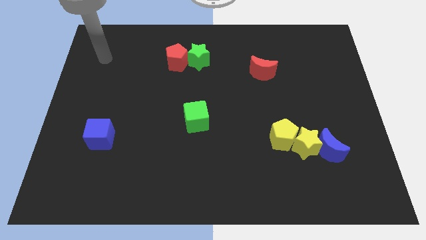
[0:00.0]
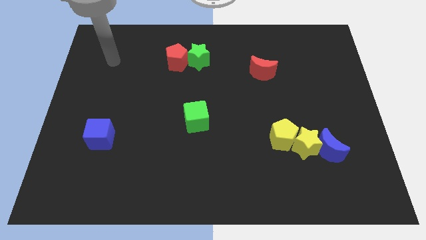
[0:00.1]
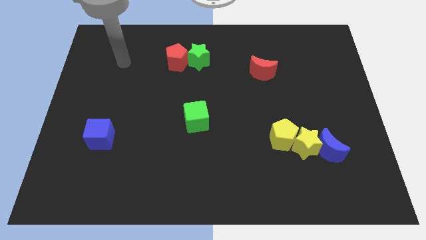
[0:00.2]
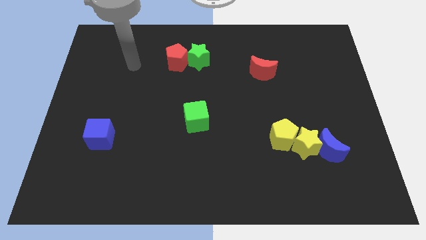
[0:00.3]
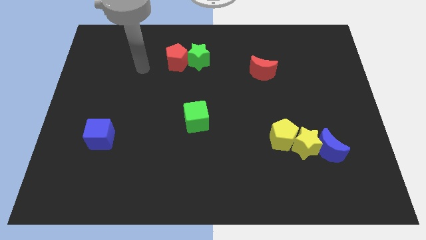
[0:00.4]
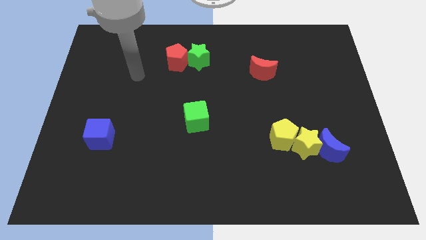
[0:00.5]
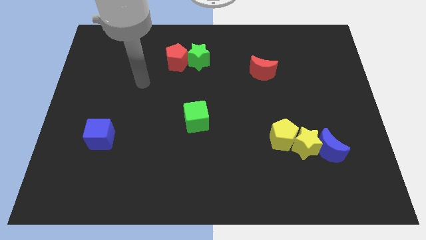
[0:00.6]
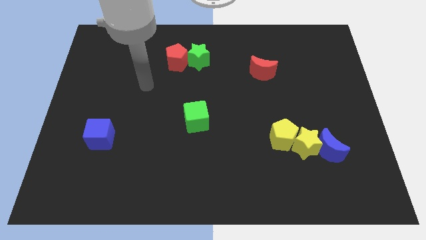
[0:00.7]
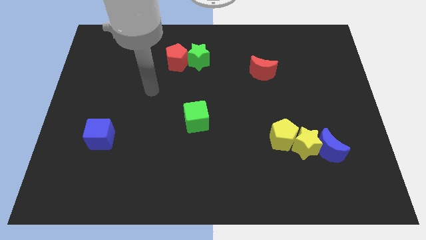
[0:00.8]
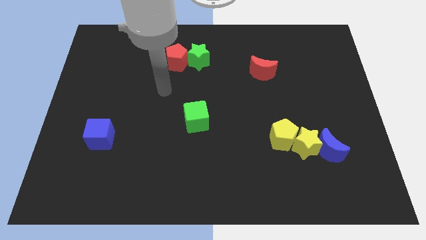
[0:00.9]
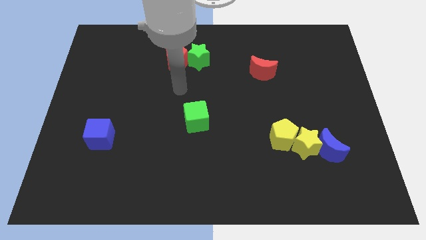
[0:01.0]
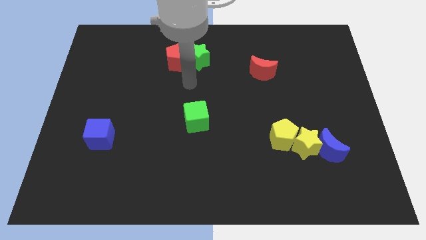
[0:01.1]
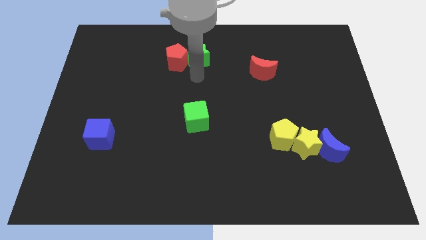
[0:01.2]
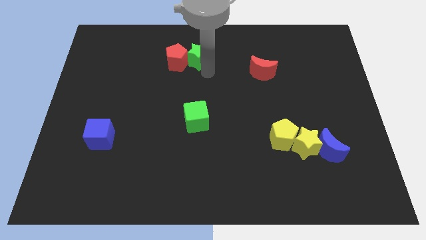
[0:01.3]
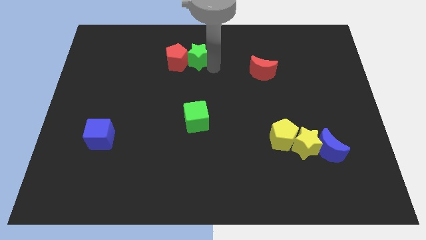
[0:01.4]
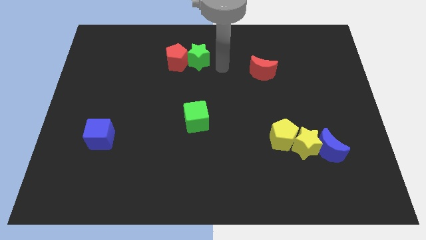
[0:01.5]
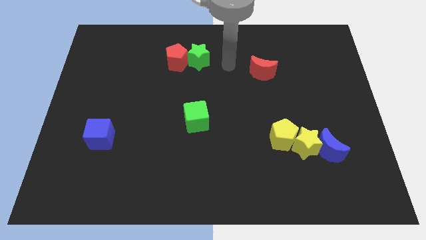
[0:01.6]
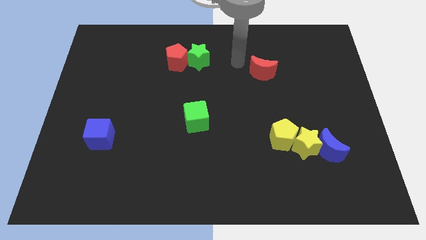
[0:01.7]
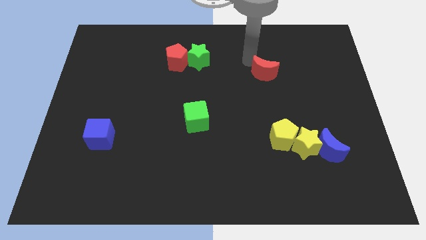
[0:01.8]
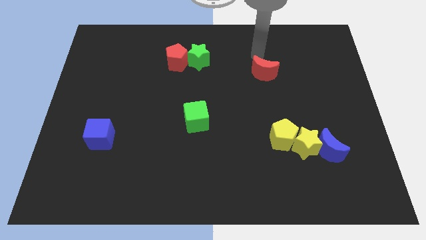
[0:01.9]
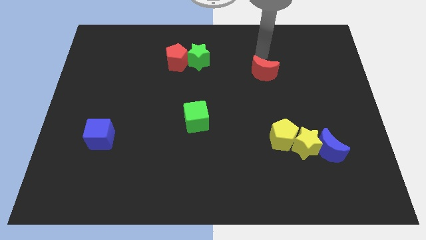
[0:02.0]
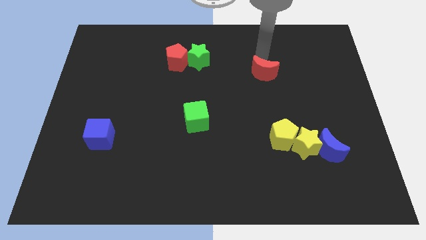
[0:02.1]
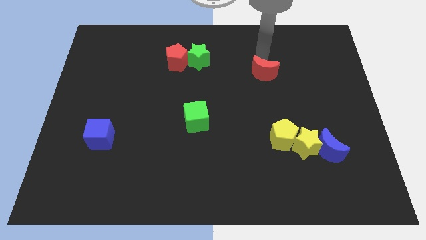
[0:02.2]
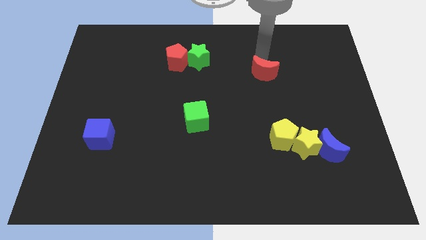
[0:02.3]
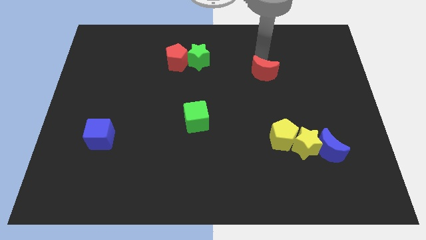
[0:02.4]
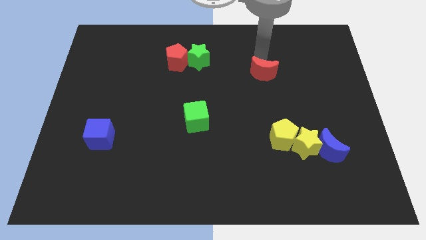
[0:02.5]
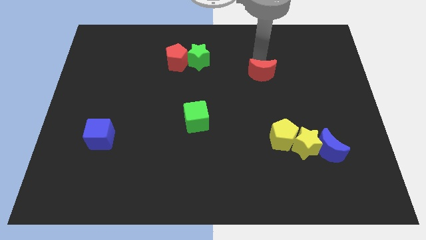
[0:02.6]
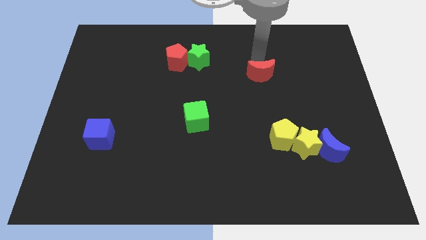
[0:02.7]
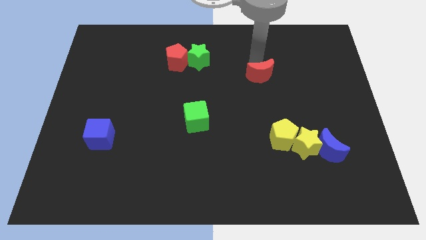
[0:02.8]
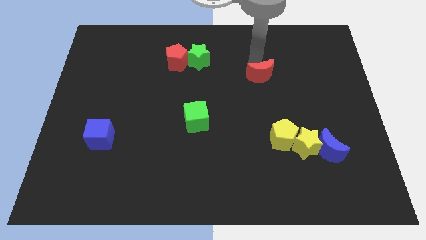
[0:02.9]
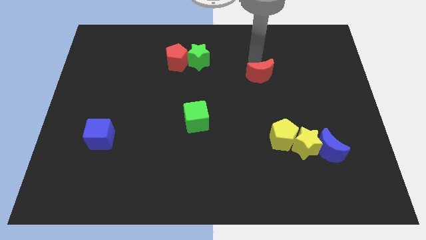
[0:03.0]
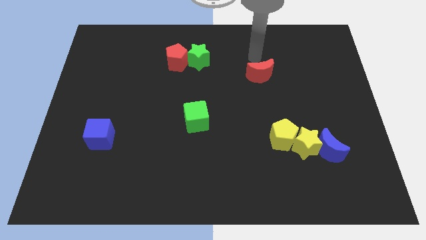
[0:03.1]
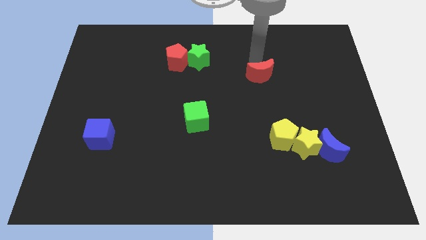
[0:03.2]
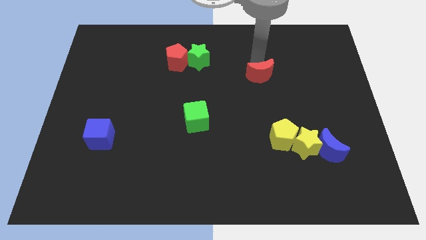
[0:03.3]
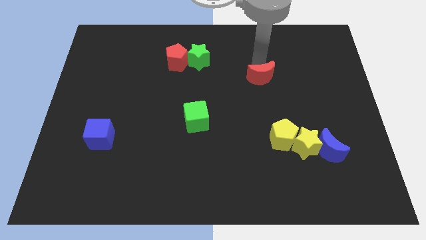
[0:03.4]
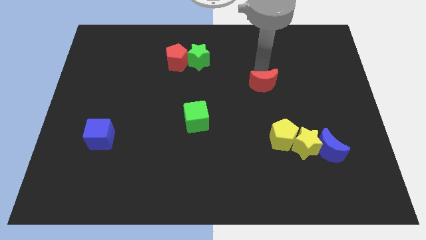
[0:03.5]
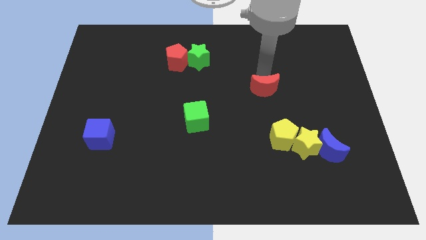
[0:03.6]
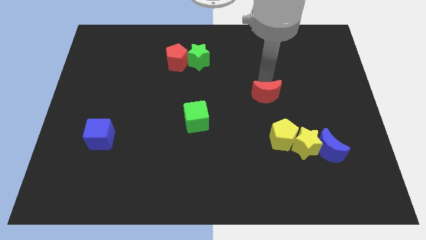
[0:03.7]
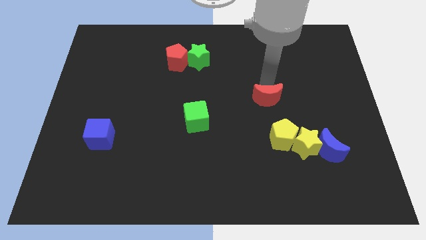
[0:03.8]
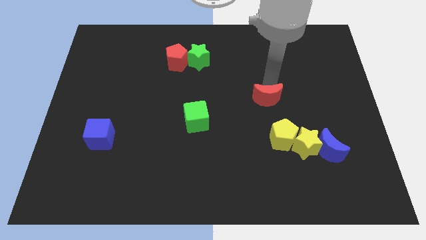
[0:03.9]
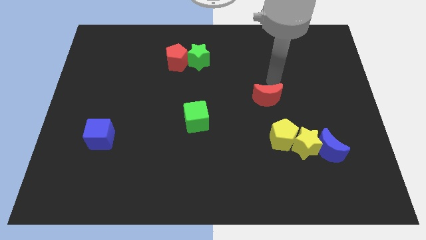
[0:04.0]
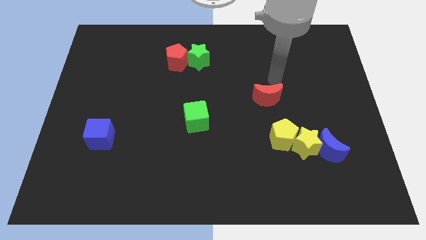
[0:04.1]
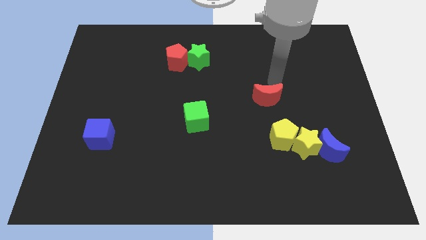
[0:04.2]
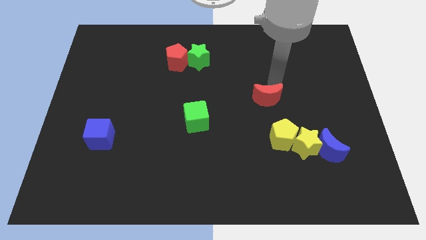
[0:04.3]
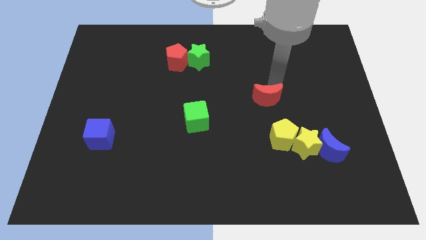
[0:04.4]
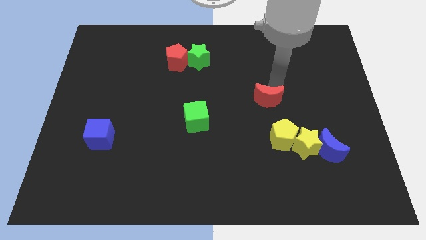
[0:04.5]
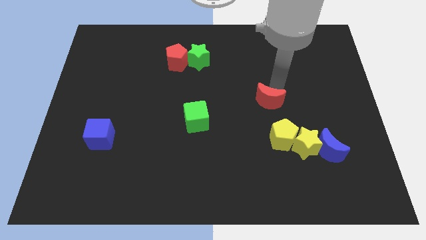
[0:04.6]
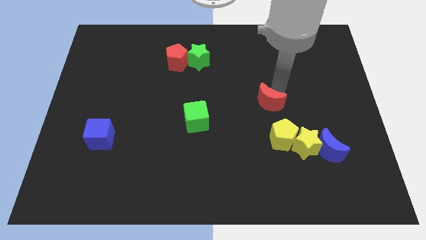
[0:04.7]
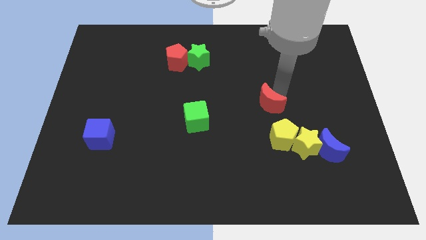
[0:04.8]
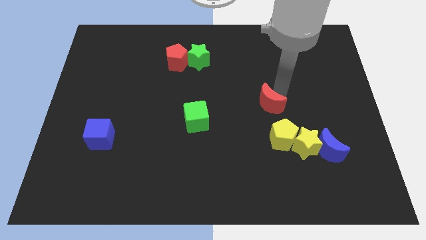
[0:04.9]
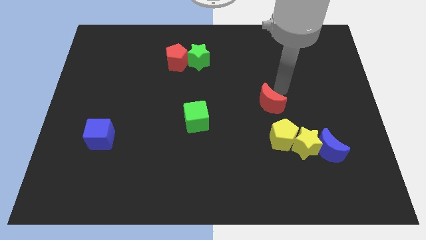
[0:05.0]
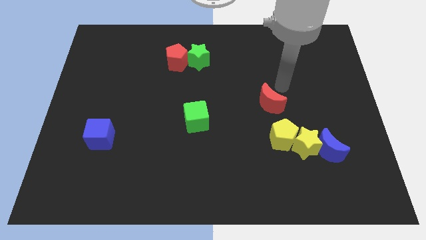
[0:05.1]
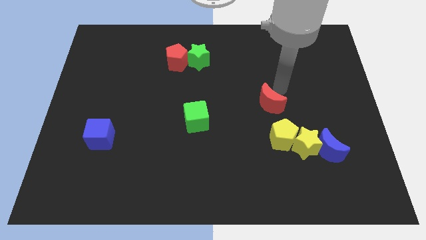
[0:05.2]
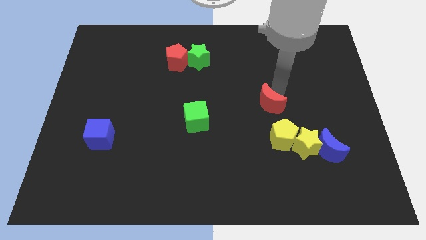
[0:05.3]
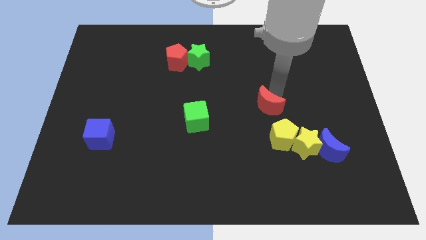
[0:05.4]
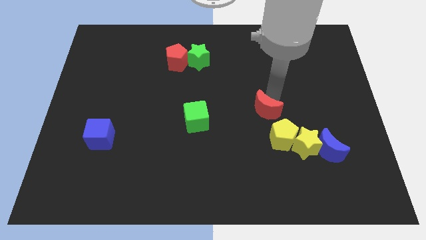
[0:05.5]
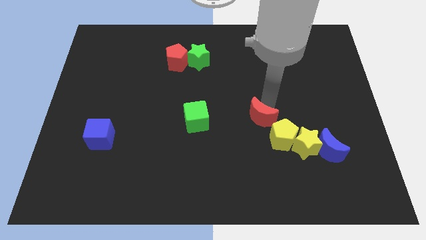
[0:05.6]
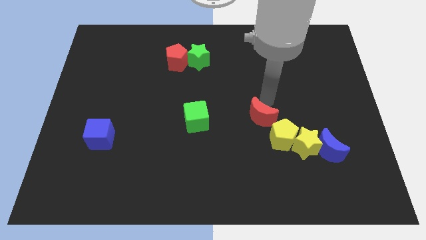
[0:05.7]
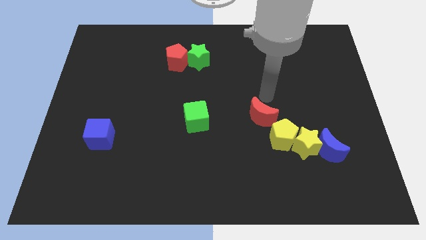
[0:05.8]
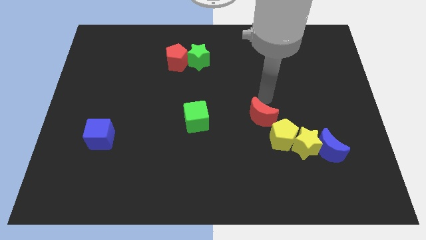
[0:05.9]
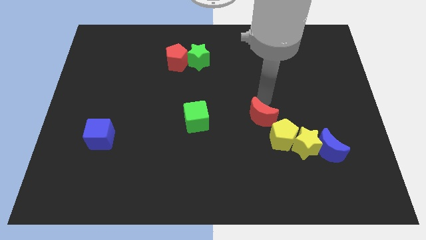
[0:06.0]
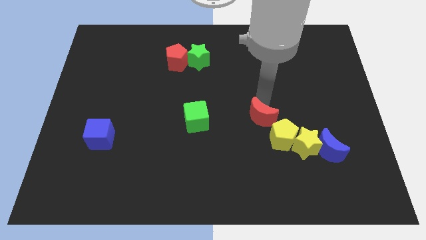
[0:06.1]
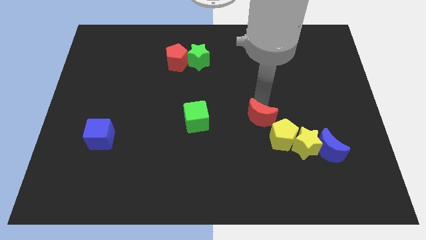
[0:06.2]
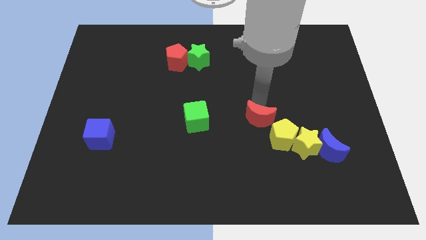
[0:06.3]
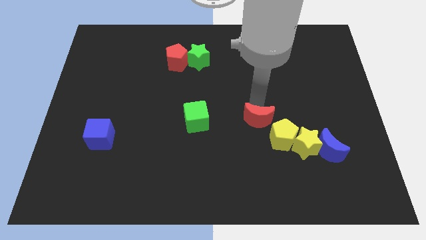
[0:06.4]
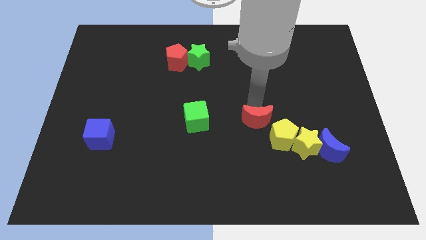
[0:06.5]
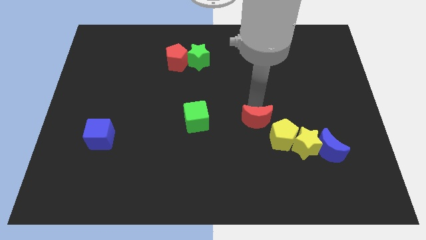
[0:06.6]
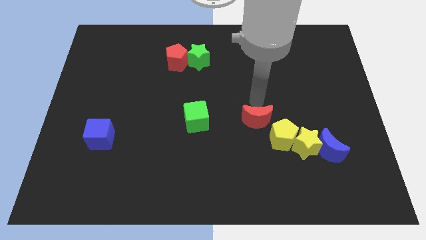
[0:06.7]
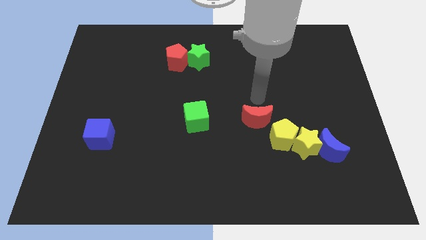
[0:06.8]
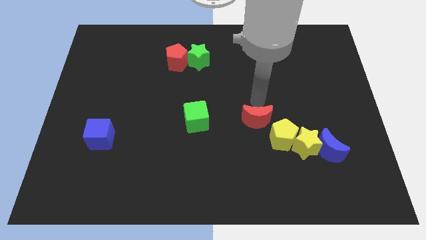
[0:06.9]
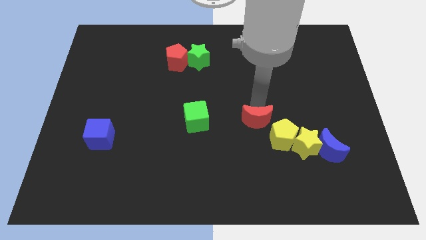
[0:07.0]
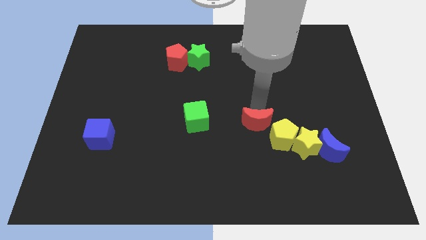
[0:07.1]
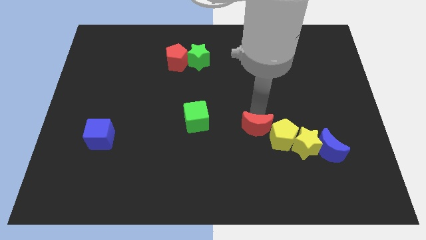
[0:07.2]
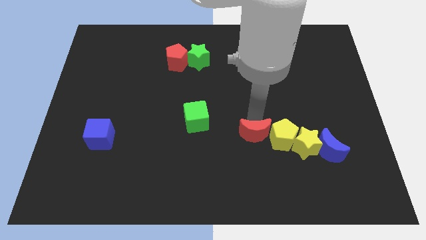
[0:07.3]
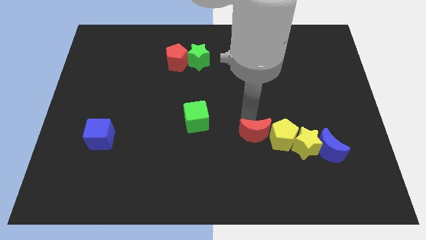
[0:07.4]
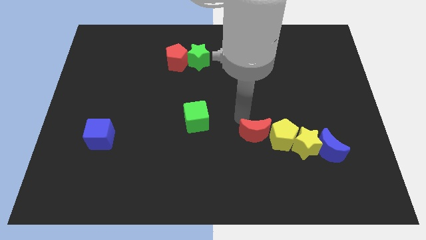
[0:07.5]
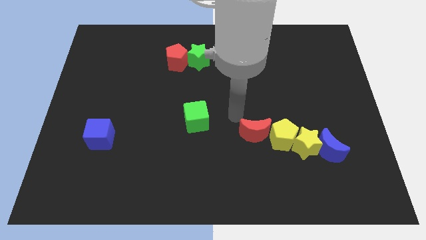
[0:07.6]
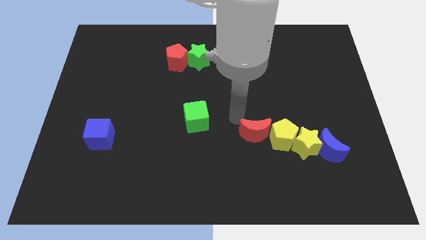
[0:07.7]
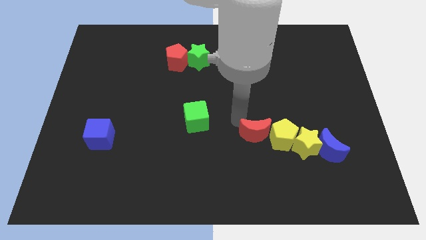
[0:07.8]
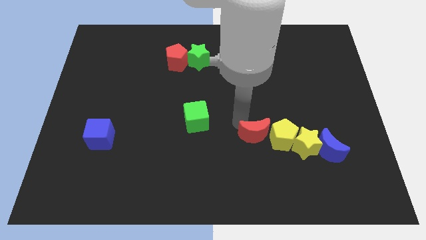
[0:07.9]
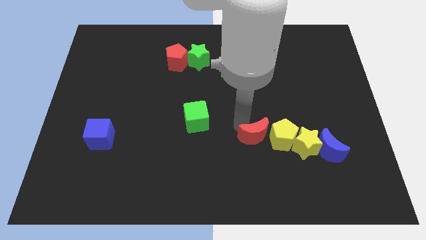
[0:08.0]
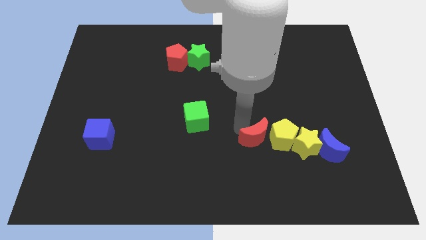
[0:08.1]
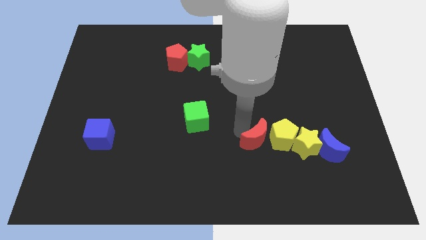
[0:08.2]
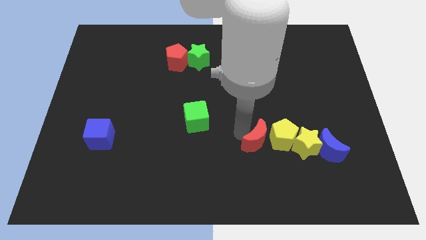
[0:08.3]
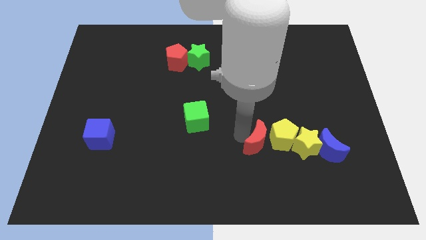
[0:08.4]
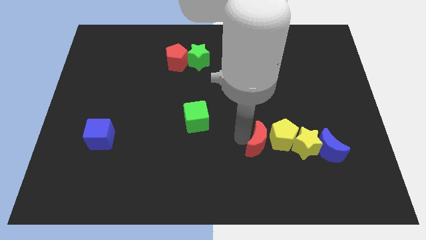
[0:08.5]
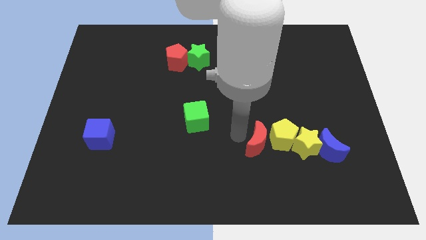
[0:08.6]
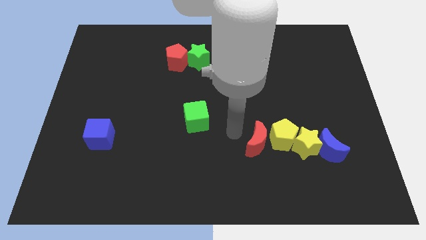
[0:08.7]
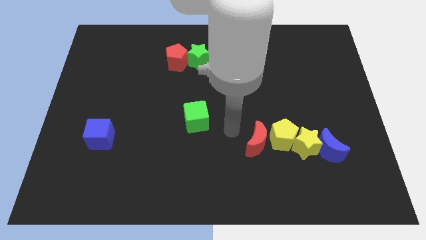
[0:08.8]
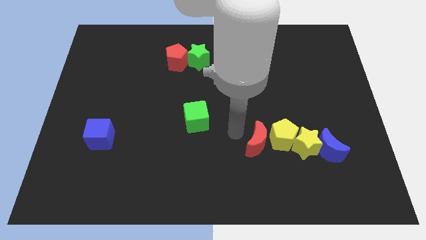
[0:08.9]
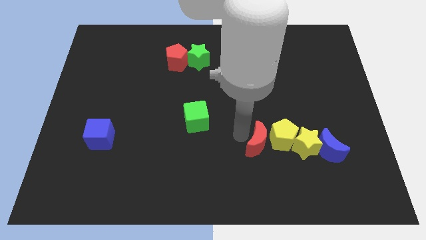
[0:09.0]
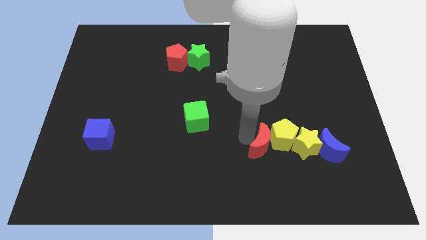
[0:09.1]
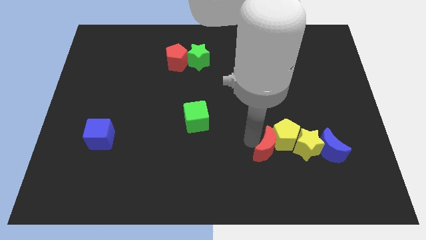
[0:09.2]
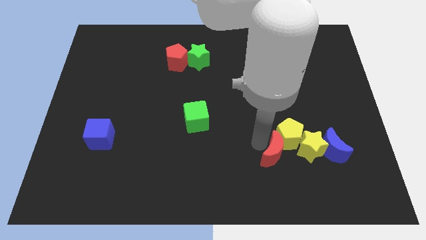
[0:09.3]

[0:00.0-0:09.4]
move the red moon to the bottom left side of the yellow star
